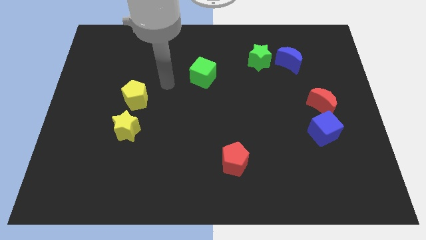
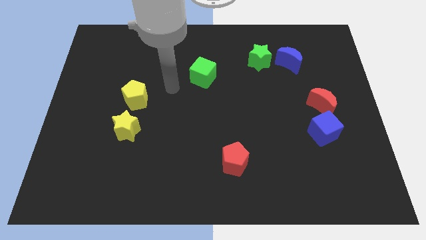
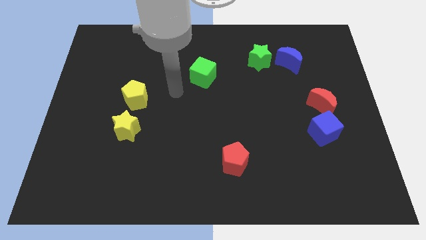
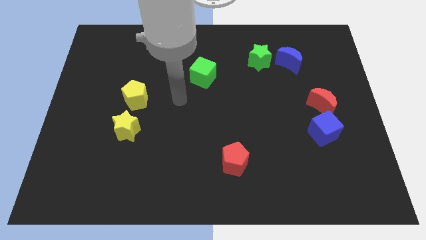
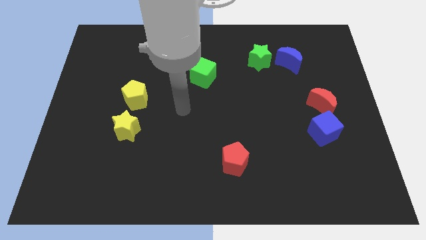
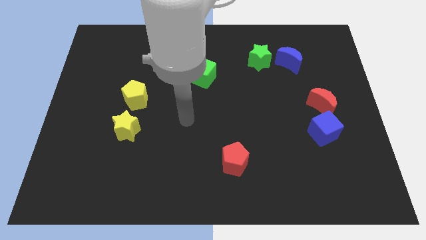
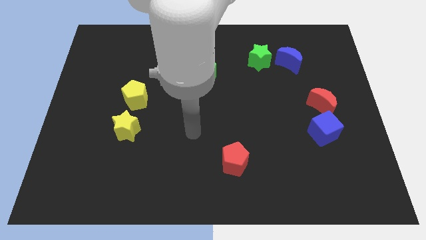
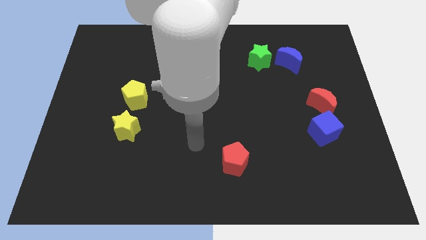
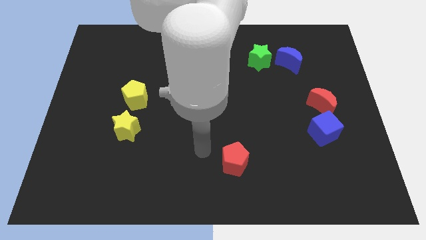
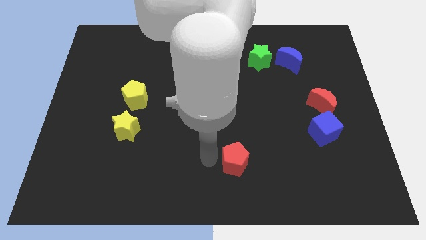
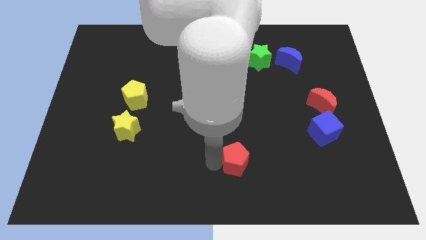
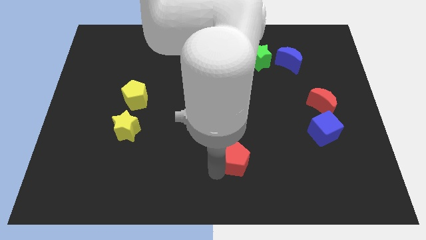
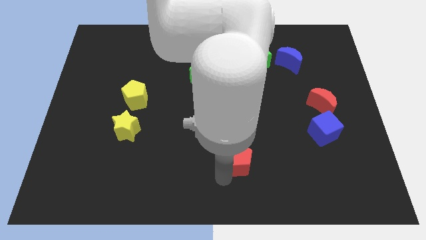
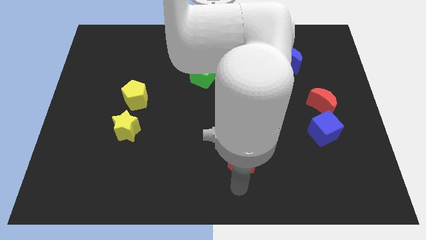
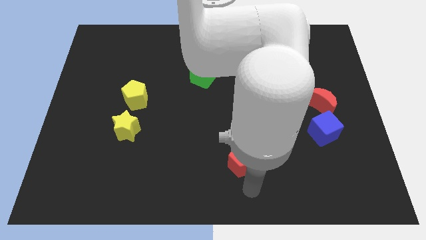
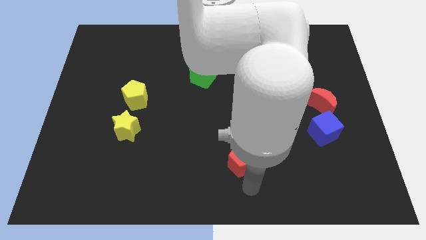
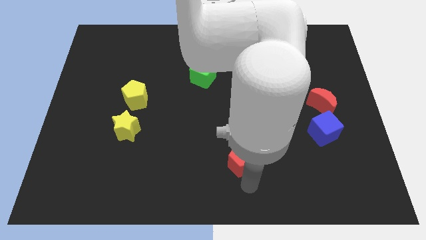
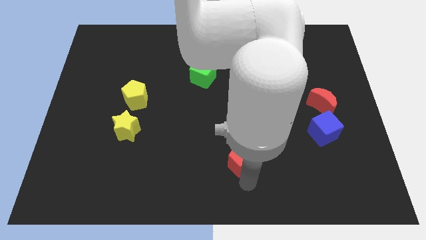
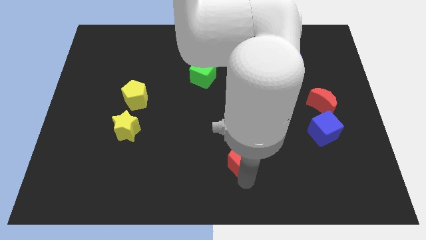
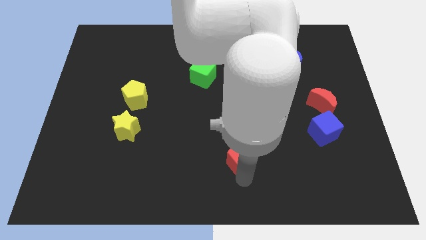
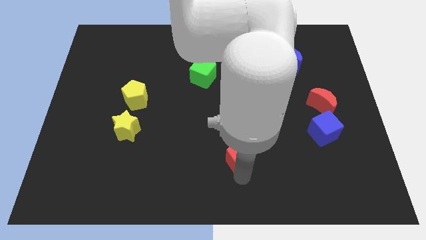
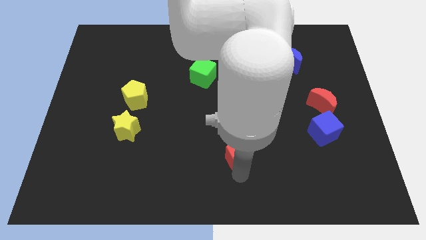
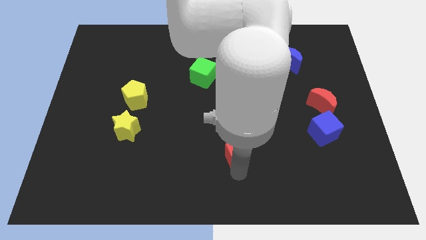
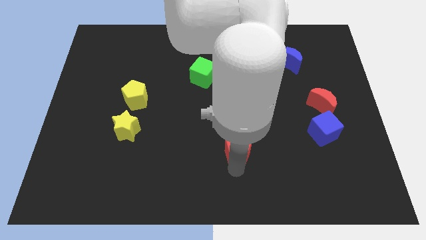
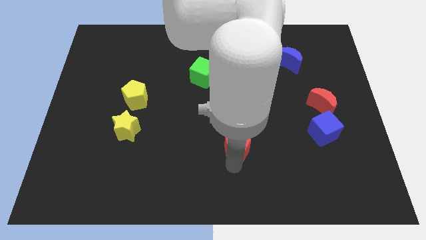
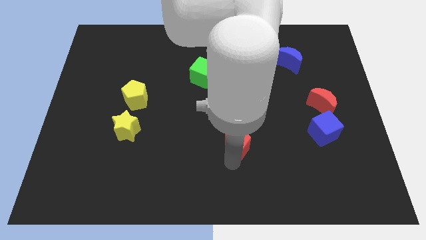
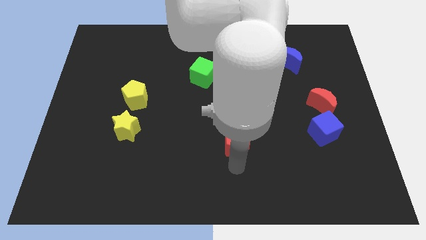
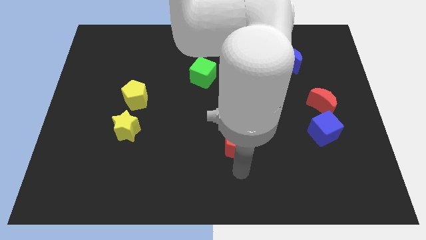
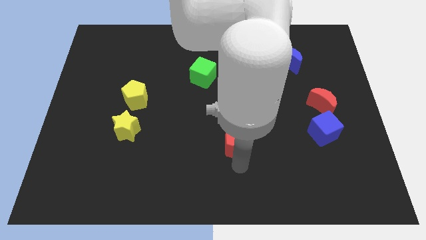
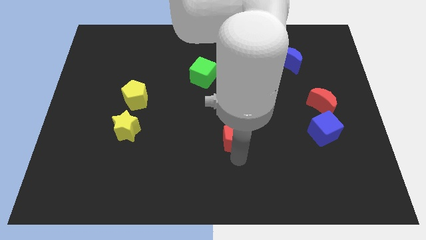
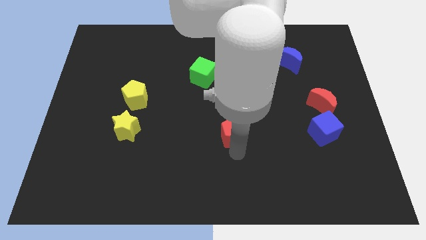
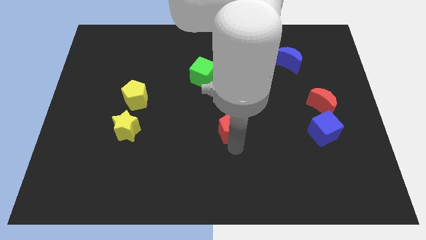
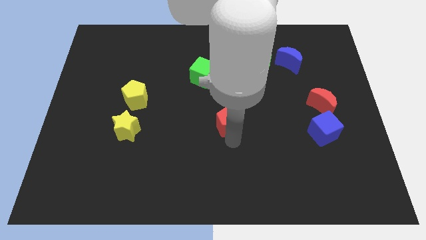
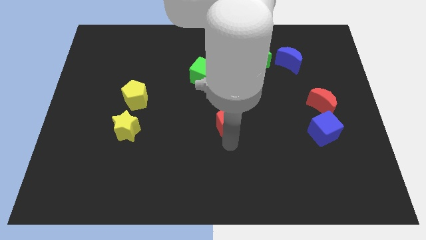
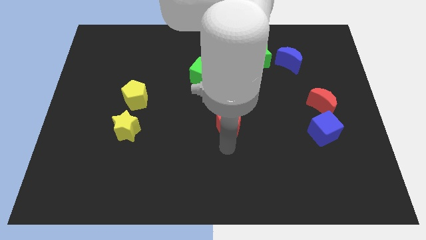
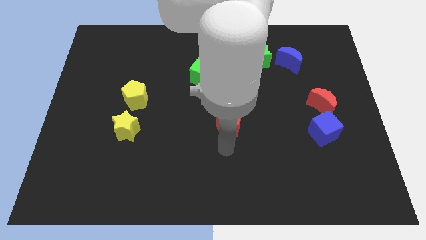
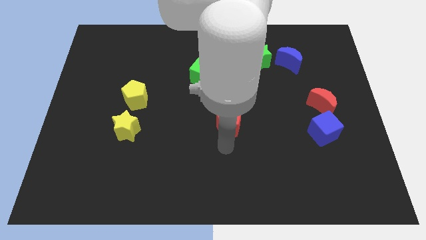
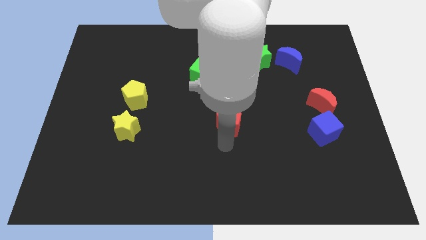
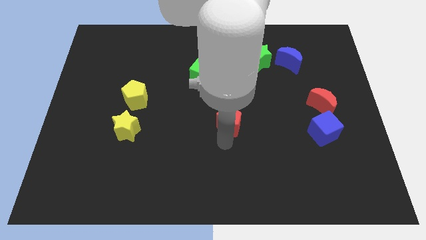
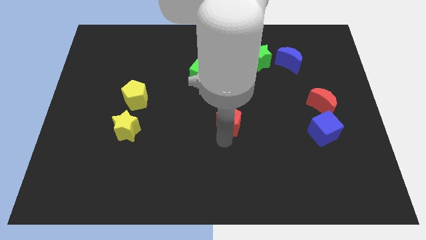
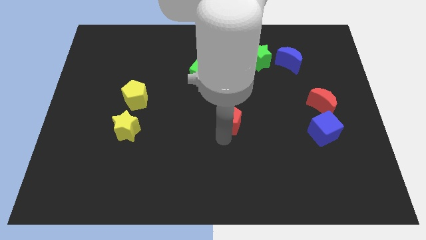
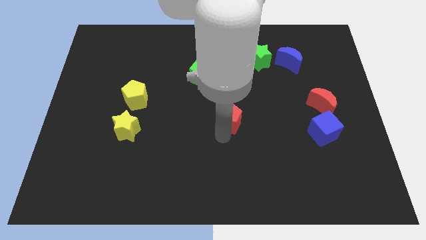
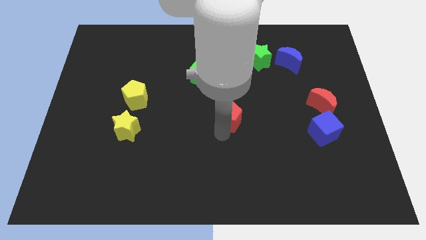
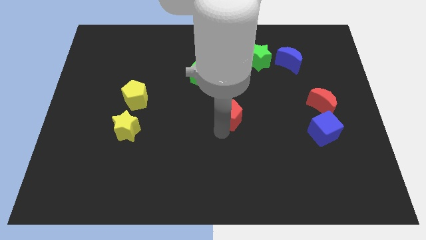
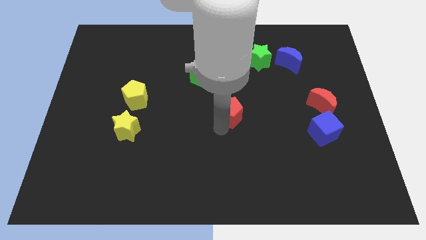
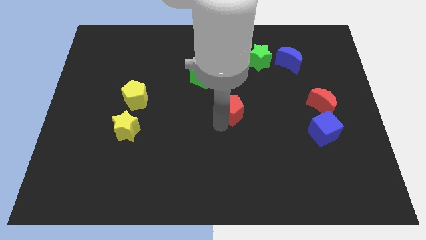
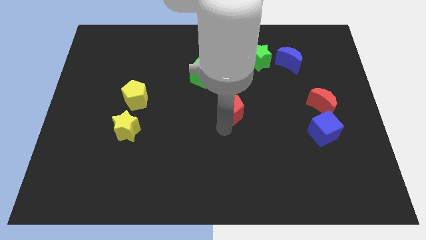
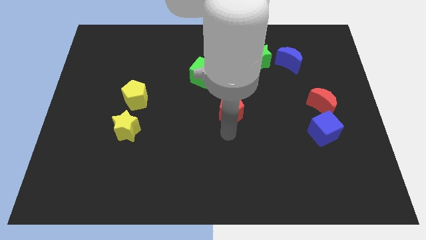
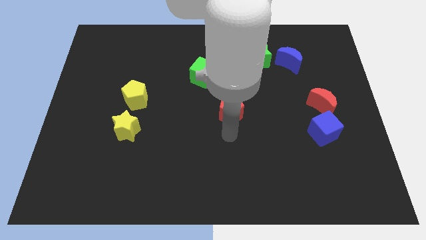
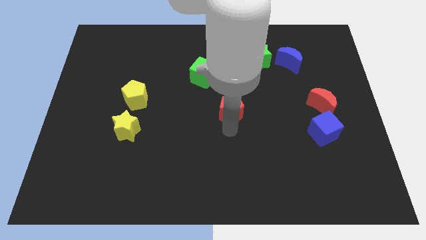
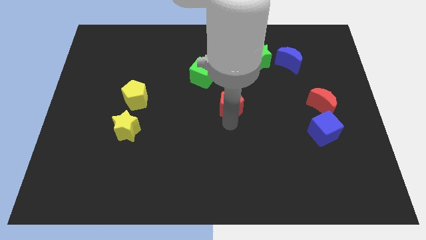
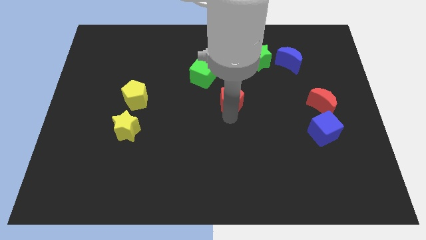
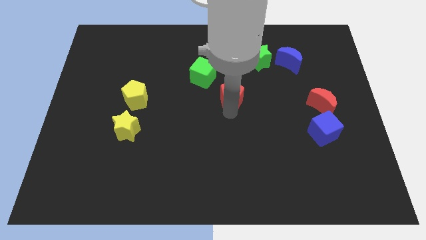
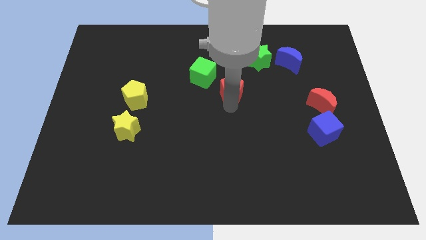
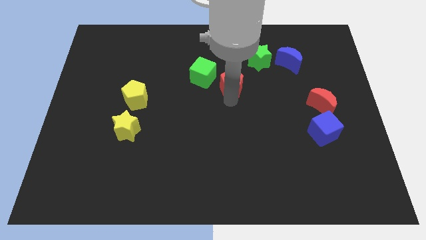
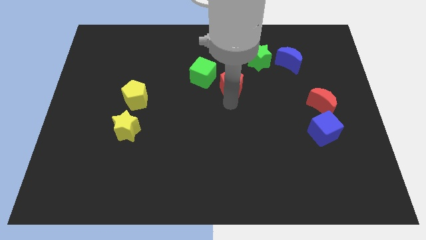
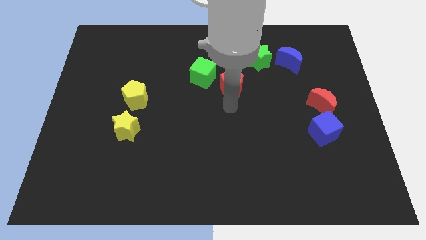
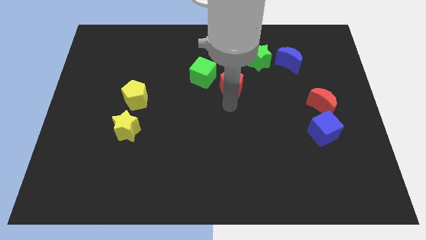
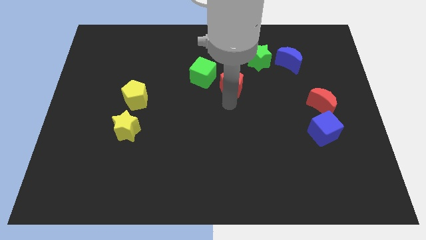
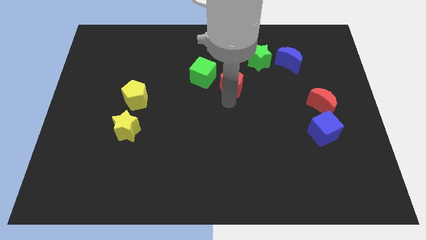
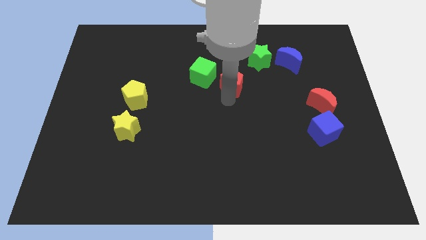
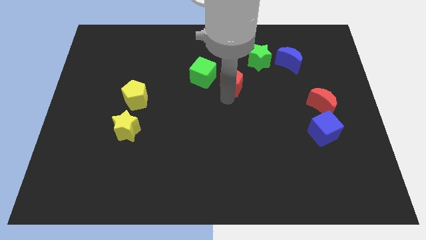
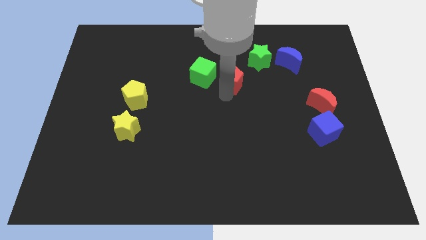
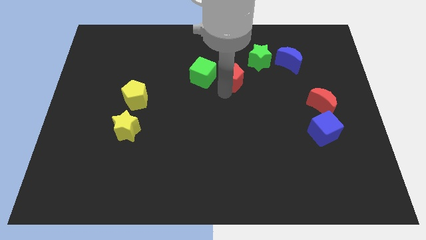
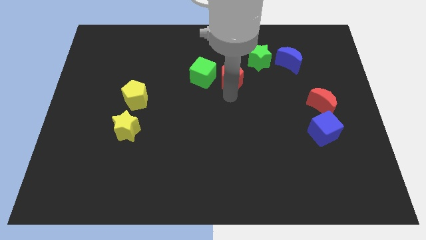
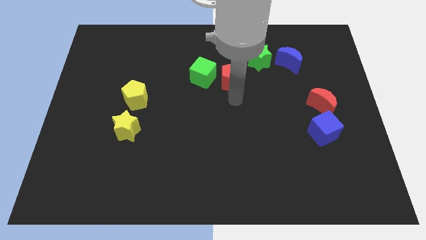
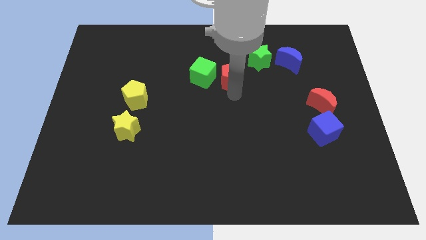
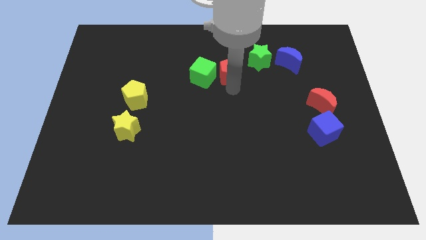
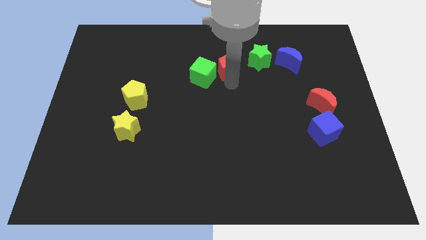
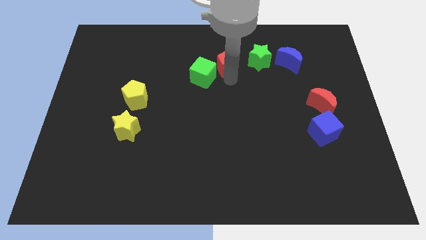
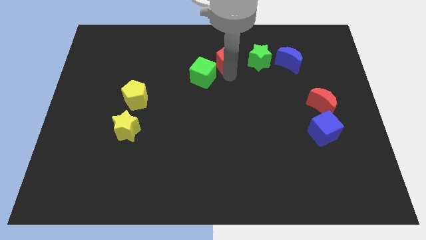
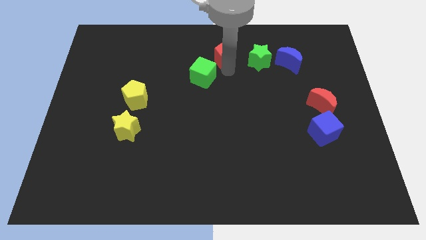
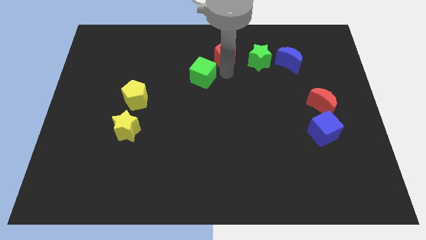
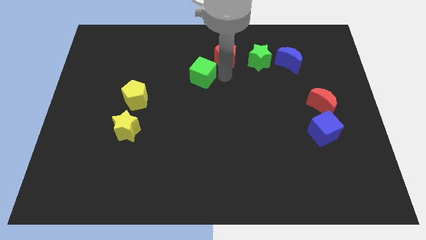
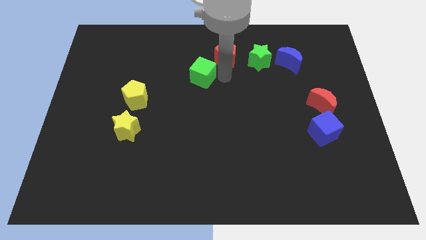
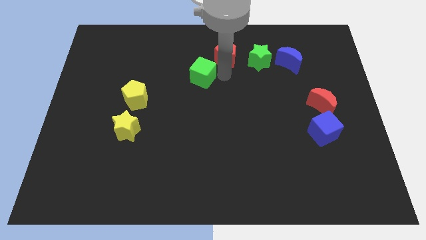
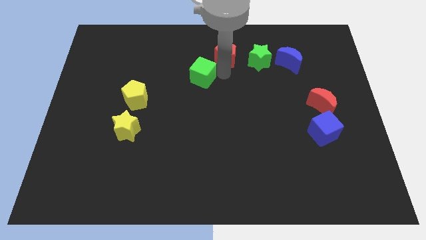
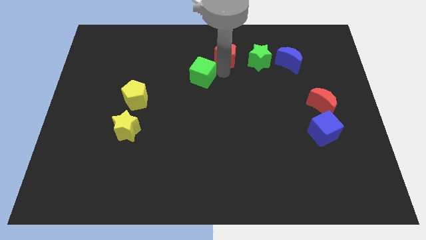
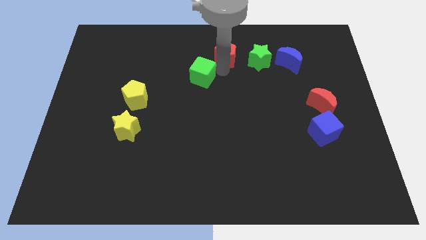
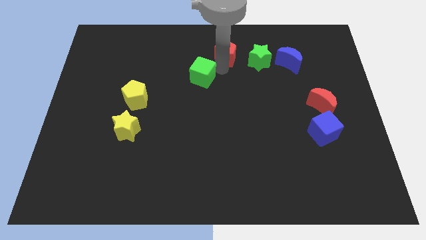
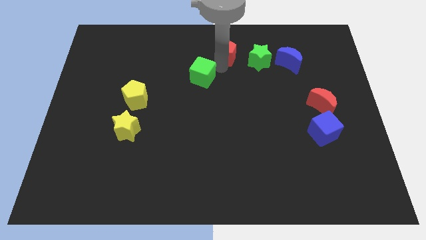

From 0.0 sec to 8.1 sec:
move the red pentagon to the towards your base
